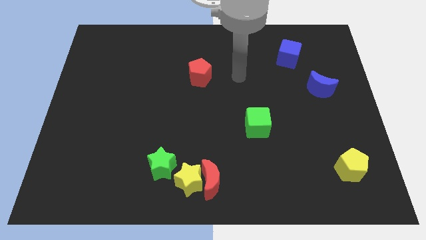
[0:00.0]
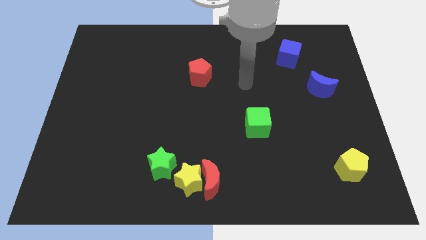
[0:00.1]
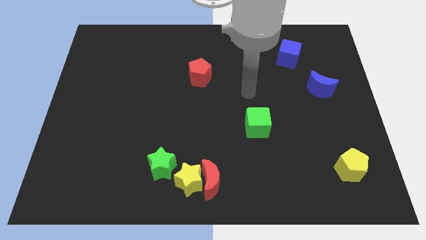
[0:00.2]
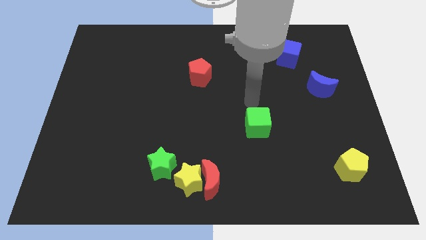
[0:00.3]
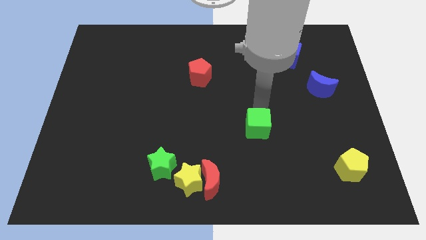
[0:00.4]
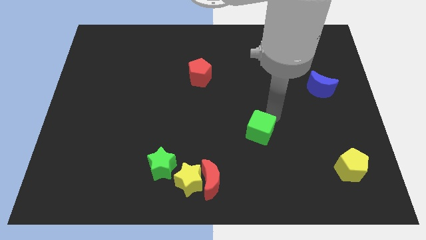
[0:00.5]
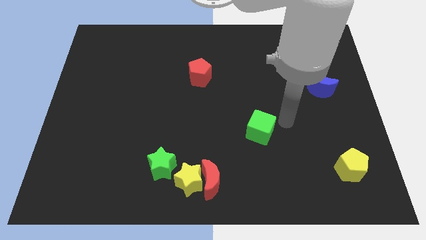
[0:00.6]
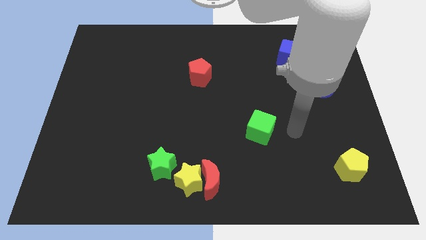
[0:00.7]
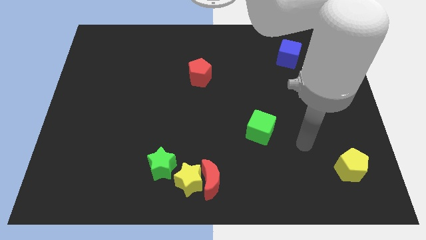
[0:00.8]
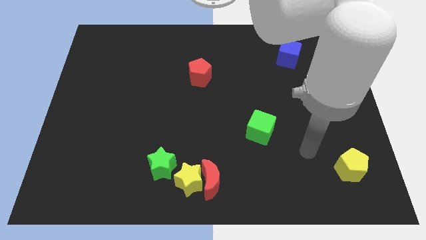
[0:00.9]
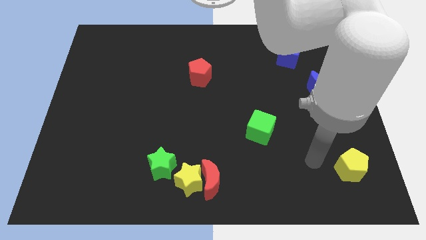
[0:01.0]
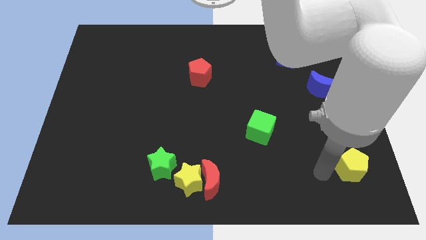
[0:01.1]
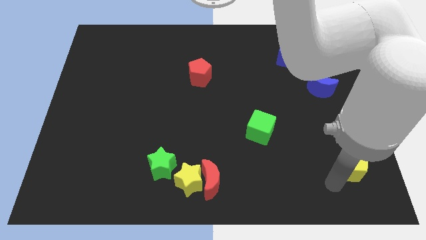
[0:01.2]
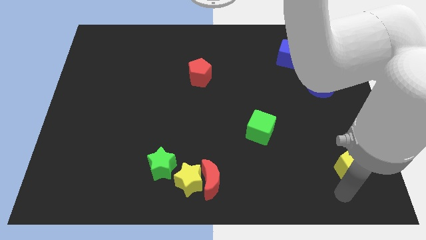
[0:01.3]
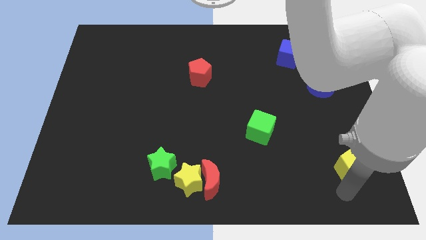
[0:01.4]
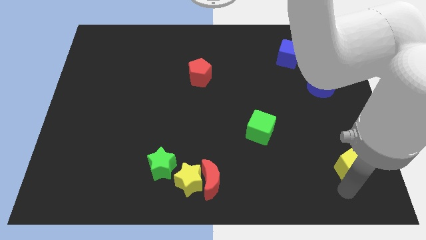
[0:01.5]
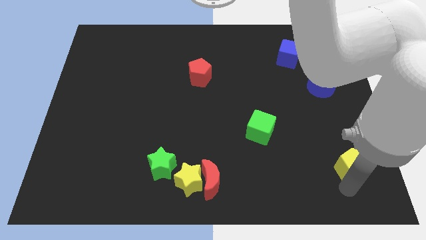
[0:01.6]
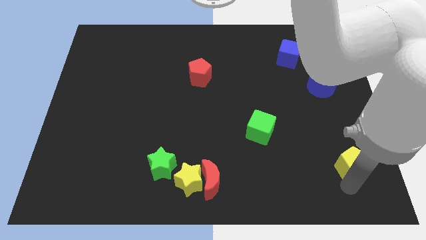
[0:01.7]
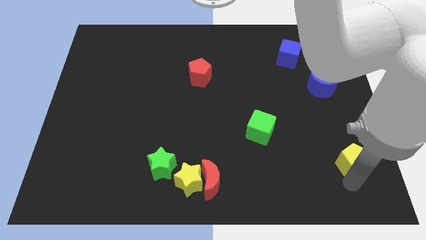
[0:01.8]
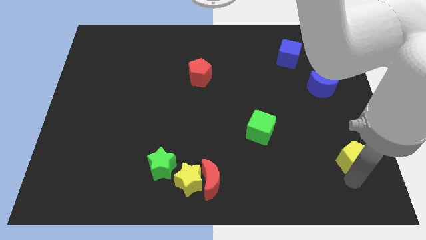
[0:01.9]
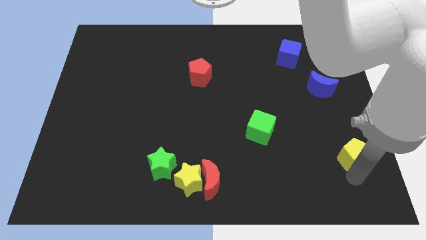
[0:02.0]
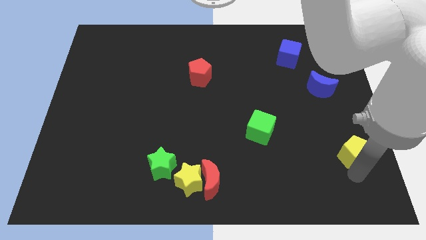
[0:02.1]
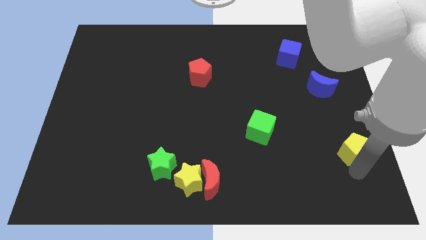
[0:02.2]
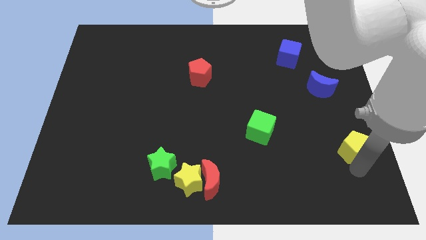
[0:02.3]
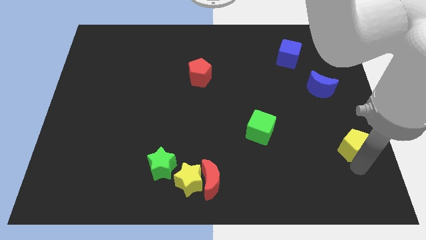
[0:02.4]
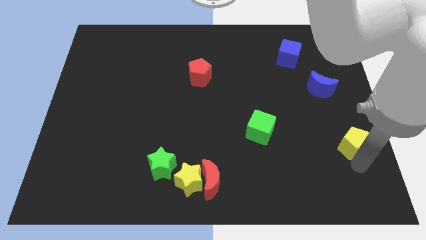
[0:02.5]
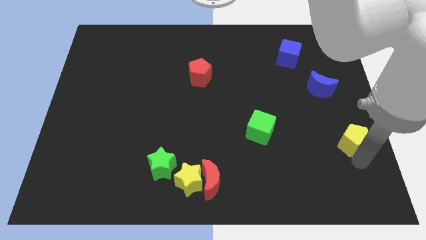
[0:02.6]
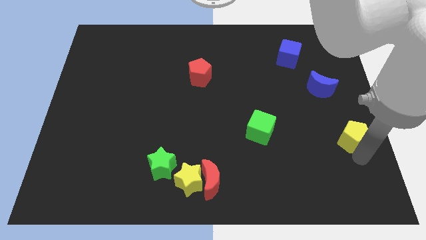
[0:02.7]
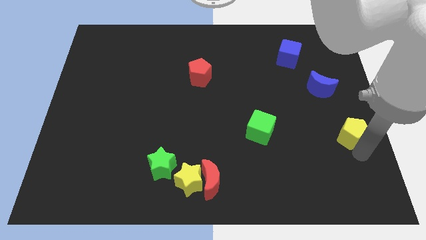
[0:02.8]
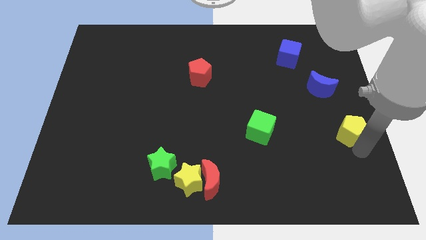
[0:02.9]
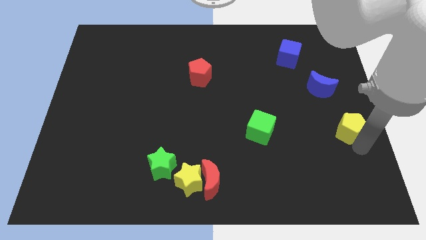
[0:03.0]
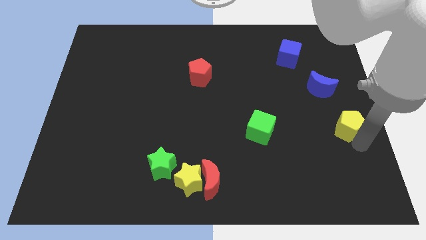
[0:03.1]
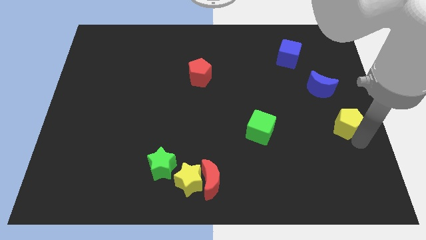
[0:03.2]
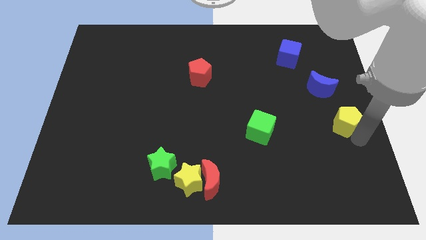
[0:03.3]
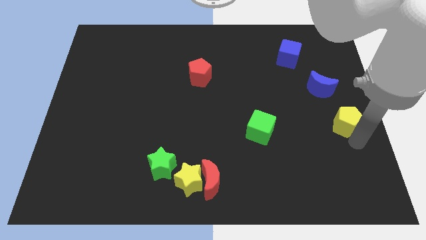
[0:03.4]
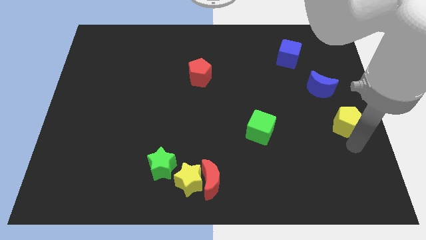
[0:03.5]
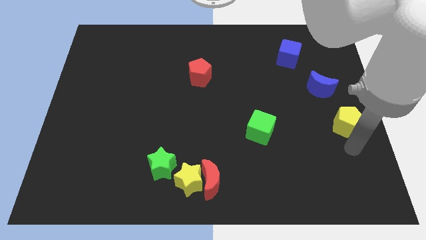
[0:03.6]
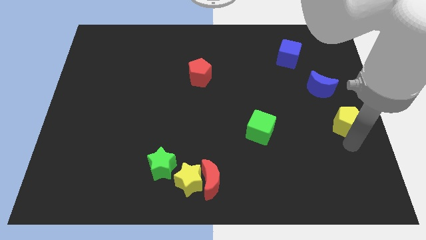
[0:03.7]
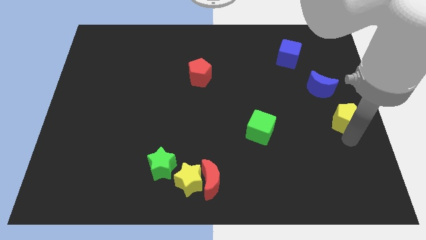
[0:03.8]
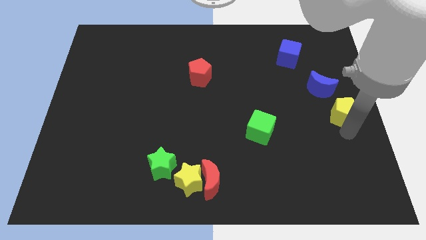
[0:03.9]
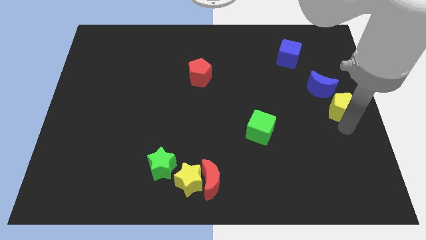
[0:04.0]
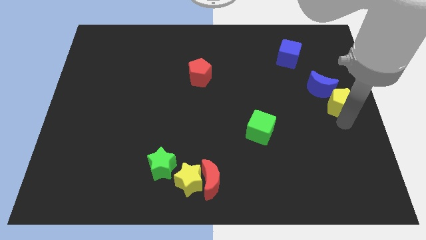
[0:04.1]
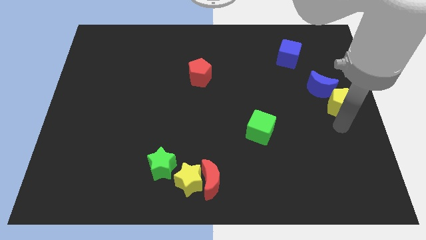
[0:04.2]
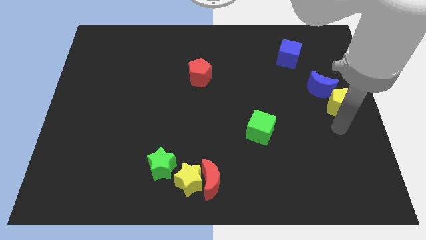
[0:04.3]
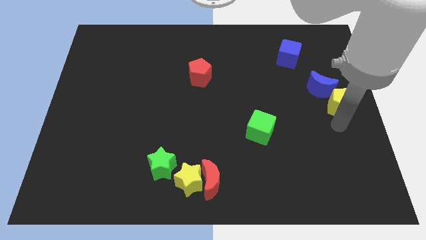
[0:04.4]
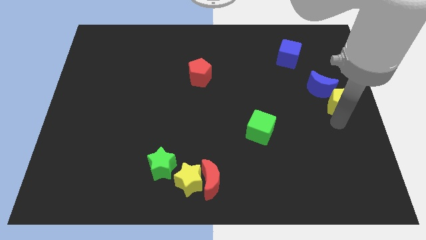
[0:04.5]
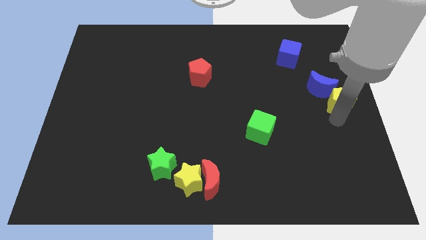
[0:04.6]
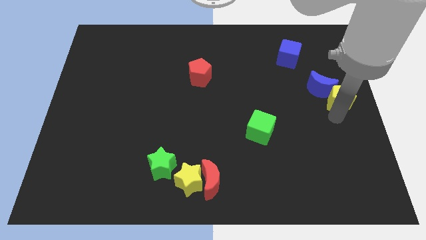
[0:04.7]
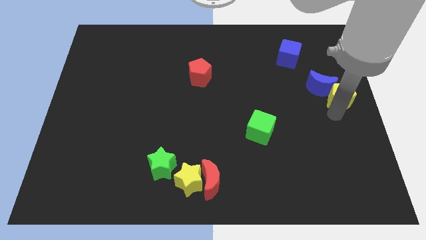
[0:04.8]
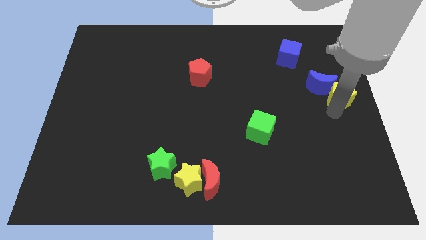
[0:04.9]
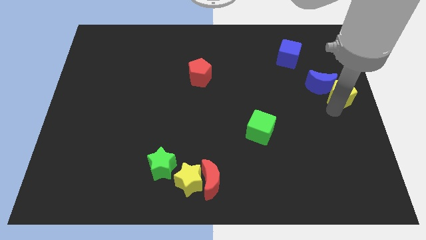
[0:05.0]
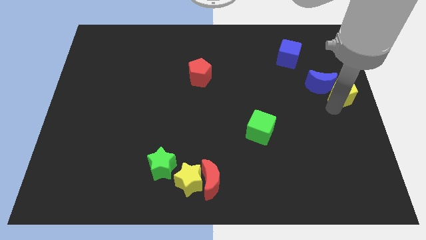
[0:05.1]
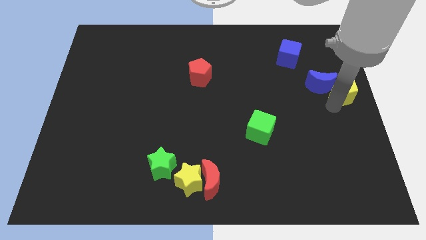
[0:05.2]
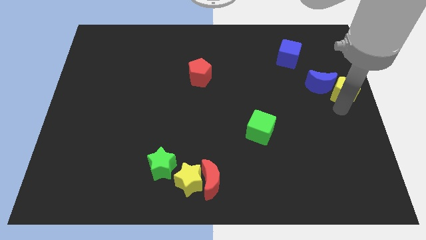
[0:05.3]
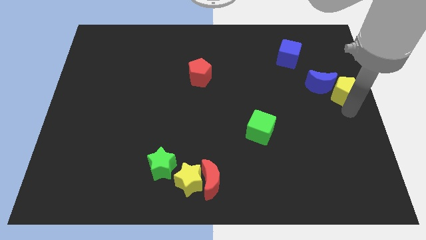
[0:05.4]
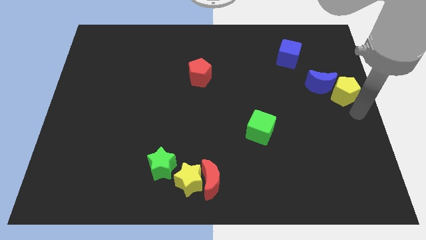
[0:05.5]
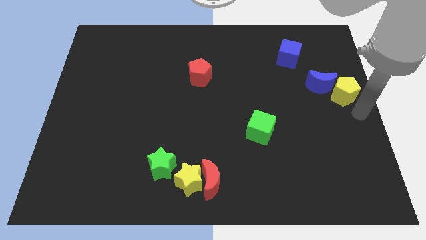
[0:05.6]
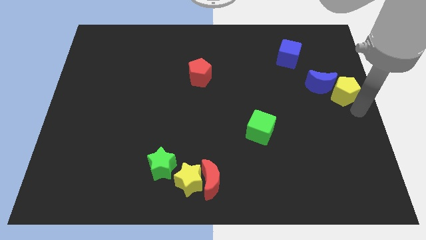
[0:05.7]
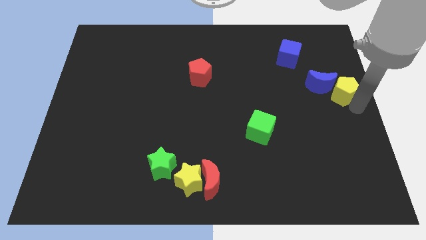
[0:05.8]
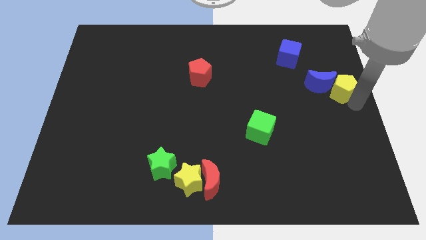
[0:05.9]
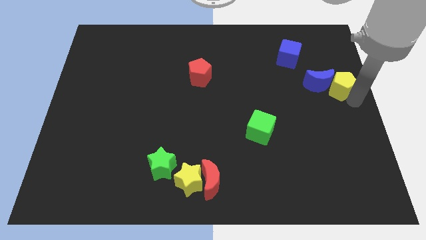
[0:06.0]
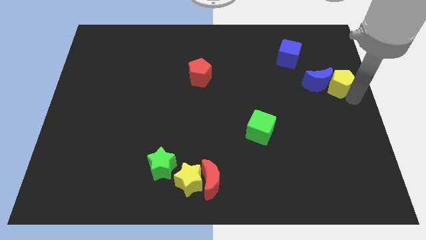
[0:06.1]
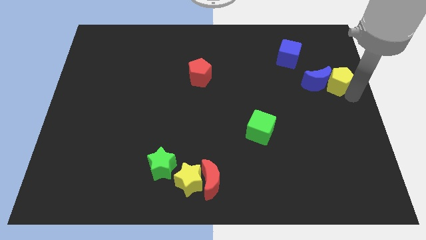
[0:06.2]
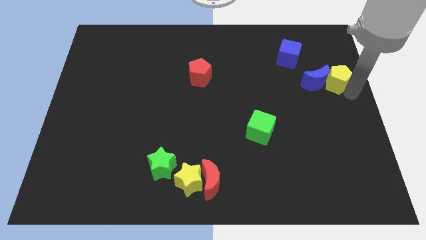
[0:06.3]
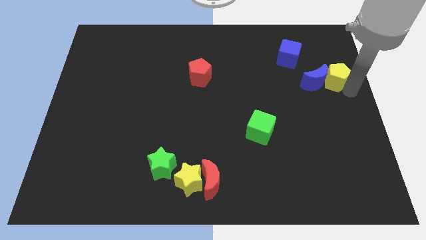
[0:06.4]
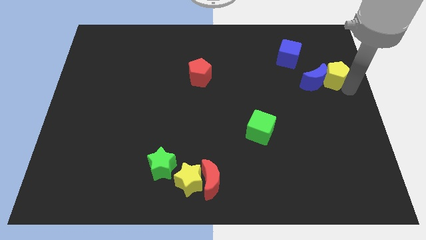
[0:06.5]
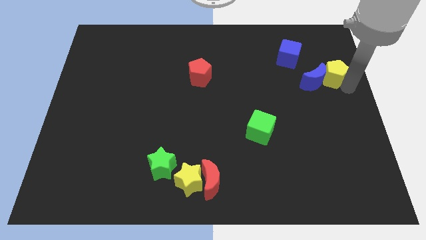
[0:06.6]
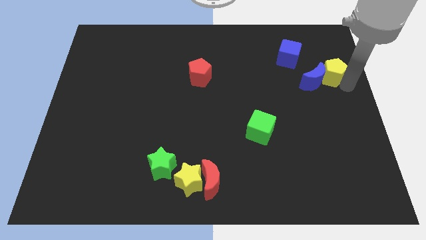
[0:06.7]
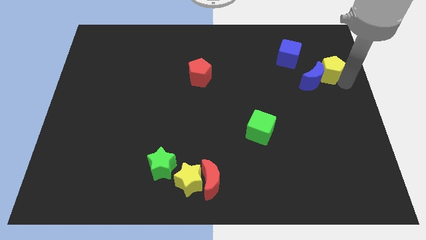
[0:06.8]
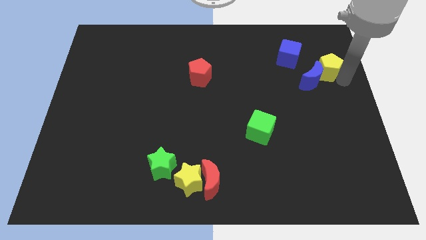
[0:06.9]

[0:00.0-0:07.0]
move the yellow pentagon above the blue moon
